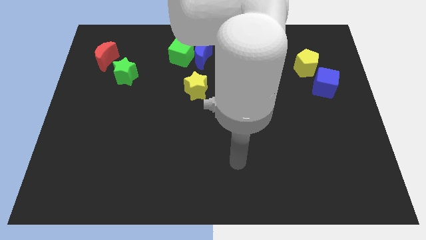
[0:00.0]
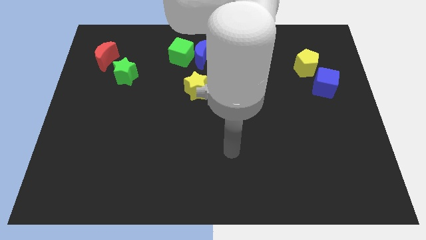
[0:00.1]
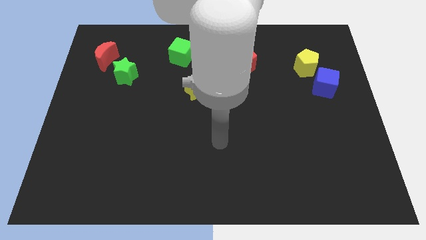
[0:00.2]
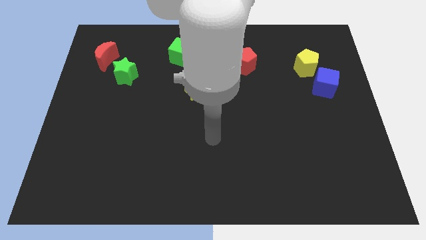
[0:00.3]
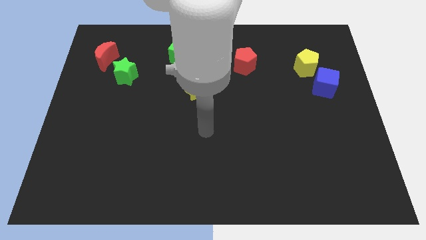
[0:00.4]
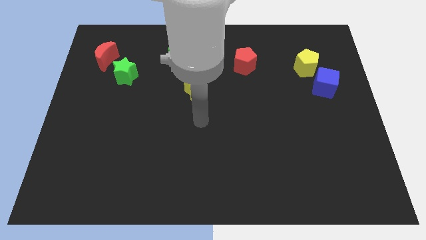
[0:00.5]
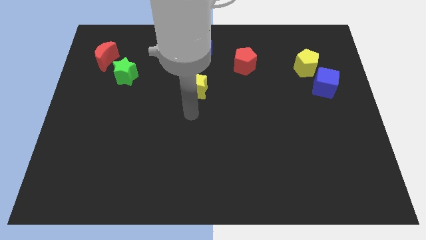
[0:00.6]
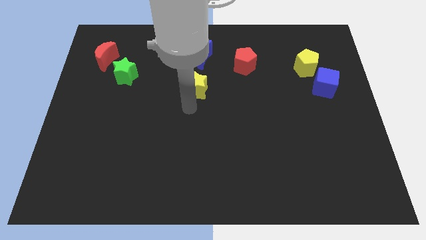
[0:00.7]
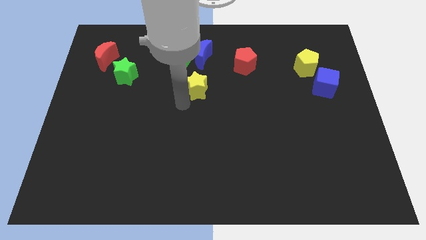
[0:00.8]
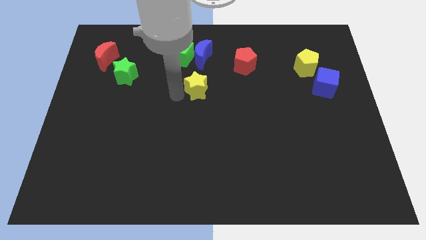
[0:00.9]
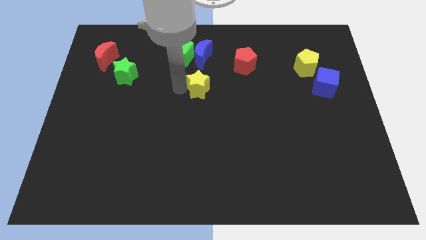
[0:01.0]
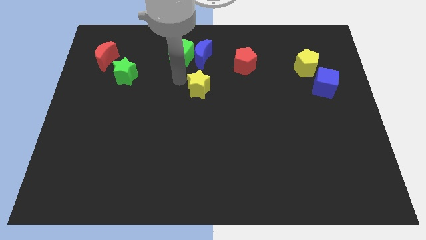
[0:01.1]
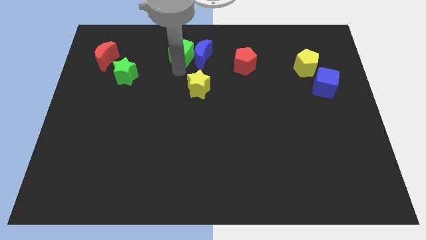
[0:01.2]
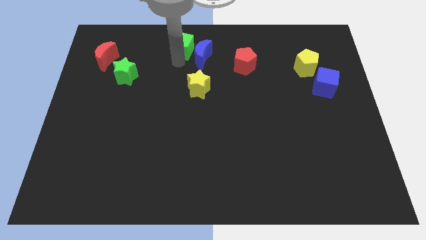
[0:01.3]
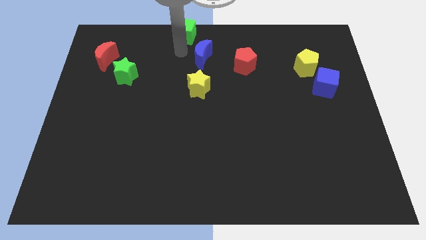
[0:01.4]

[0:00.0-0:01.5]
pull the blue moon apart from the green cube

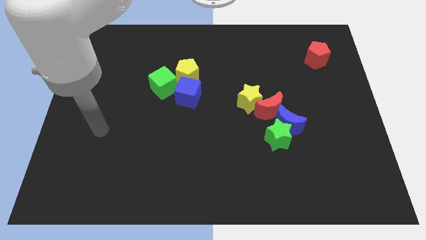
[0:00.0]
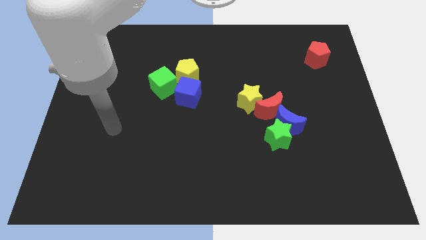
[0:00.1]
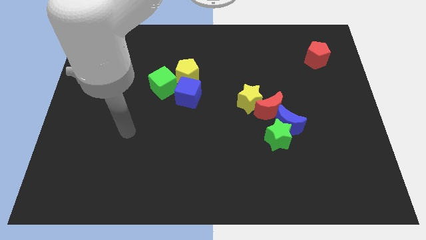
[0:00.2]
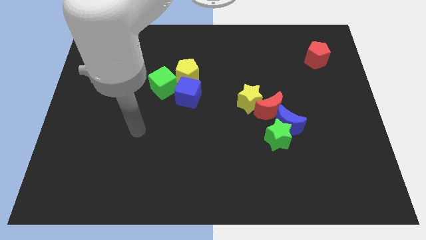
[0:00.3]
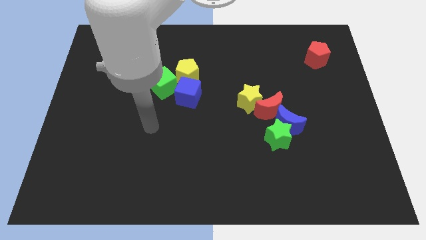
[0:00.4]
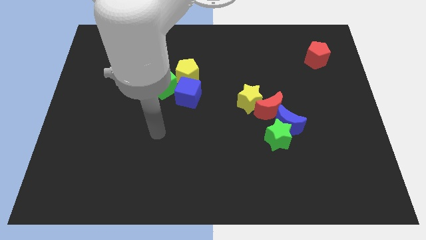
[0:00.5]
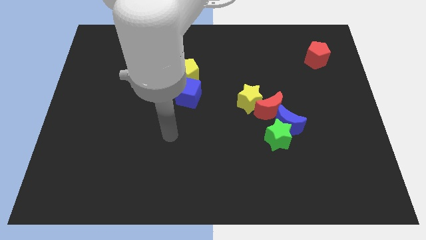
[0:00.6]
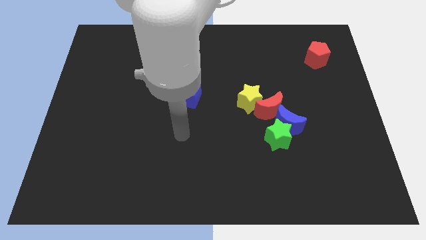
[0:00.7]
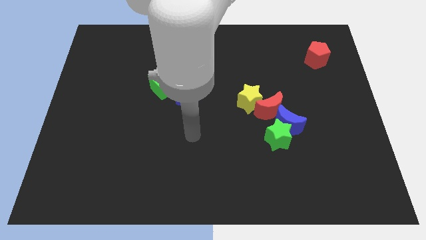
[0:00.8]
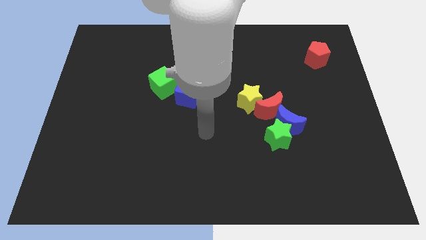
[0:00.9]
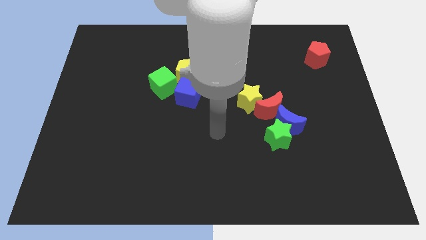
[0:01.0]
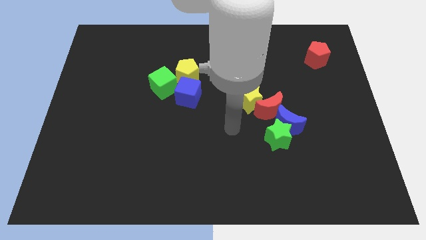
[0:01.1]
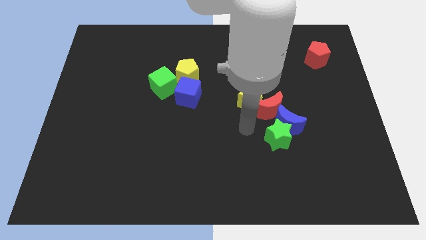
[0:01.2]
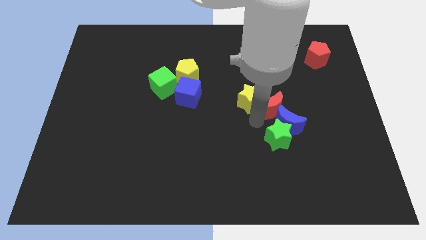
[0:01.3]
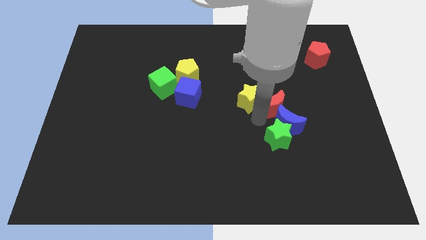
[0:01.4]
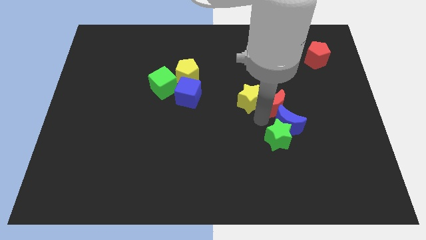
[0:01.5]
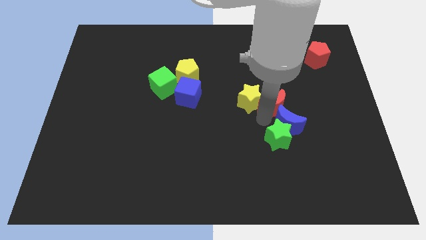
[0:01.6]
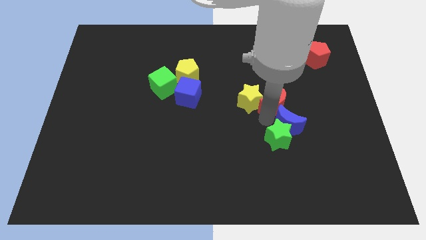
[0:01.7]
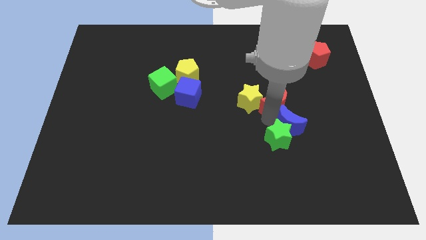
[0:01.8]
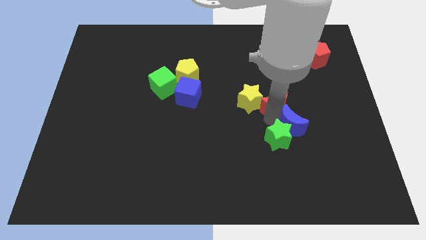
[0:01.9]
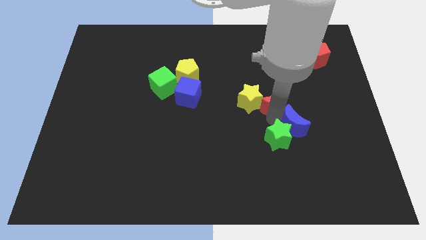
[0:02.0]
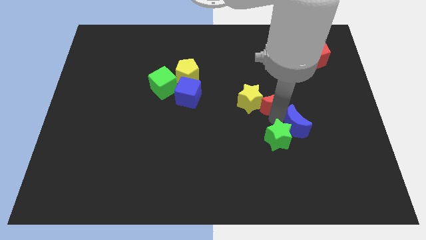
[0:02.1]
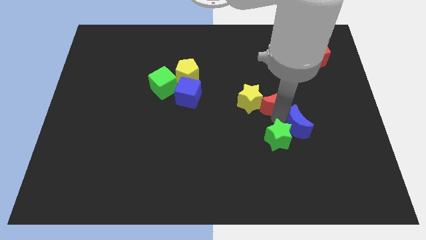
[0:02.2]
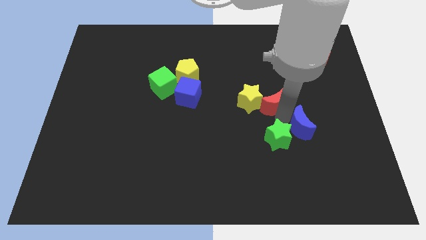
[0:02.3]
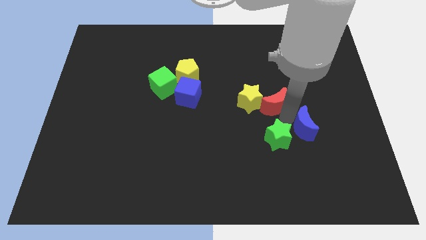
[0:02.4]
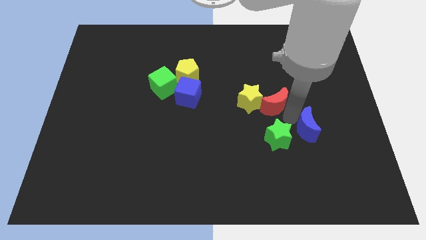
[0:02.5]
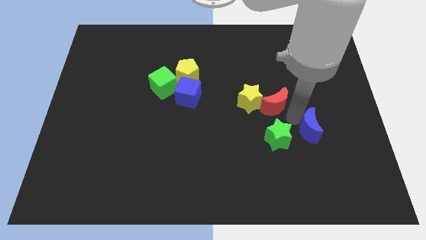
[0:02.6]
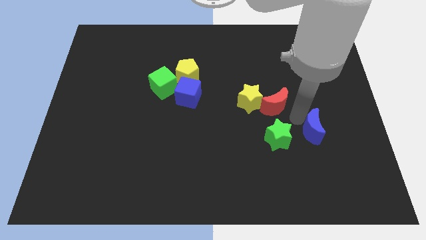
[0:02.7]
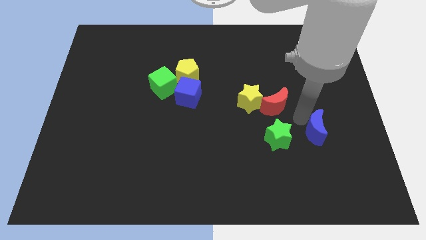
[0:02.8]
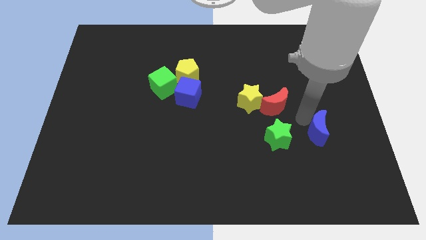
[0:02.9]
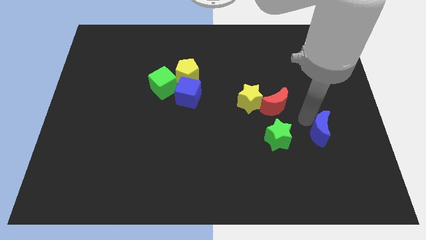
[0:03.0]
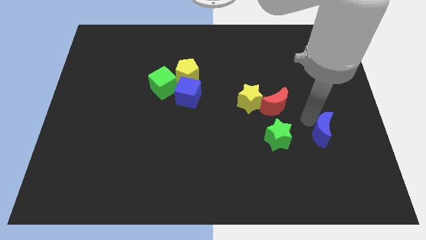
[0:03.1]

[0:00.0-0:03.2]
separate the blue moon from the green star and red moon

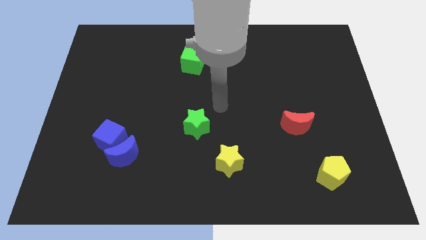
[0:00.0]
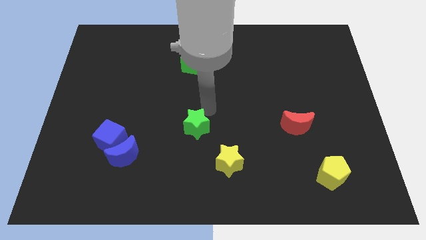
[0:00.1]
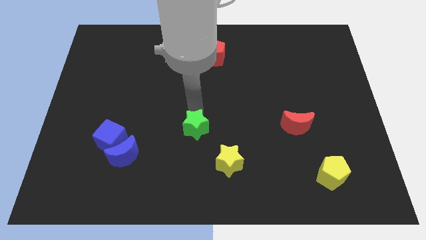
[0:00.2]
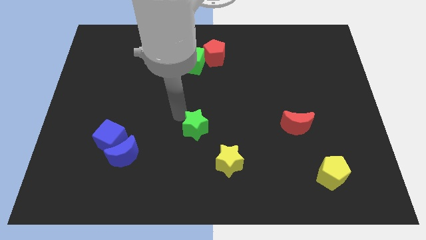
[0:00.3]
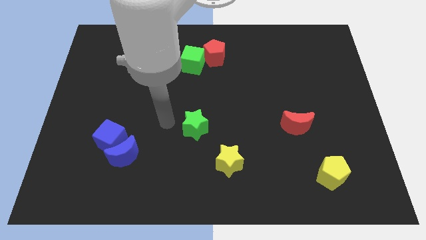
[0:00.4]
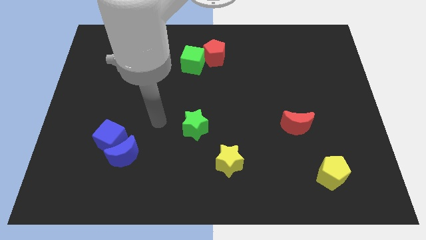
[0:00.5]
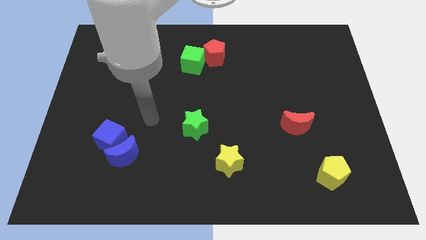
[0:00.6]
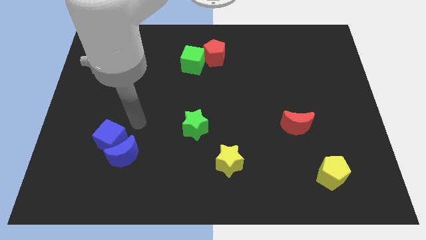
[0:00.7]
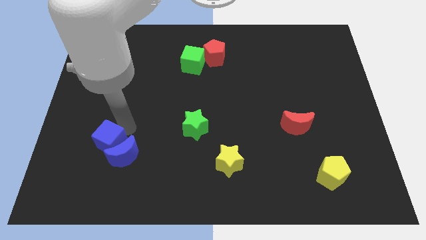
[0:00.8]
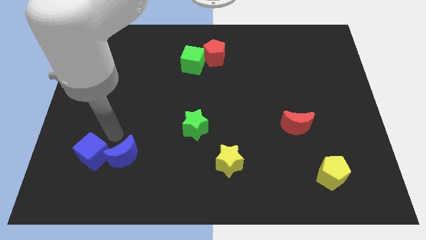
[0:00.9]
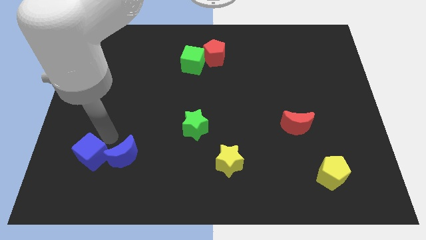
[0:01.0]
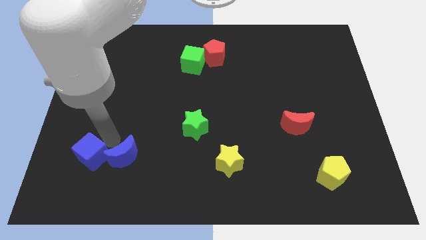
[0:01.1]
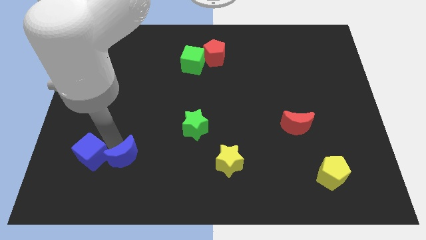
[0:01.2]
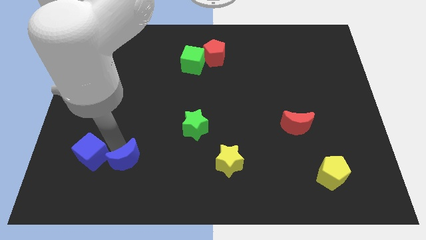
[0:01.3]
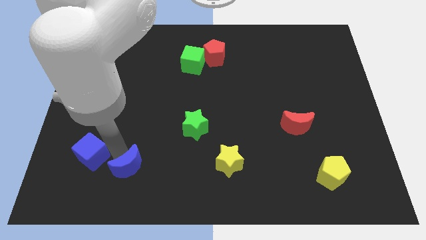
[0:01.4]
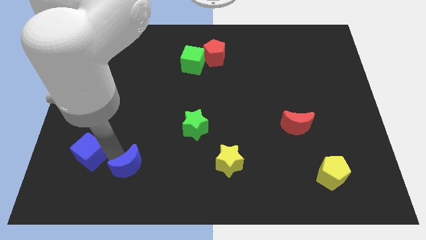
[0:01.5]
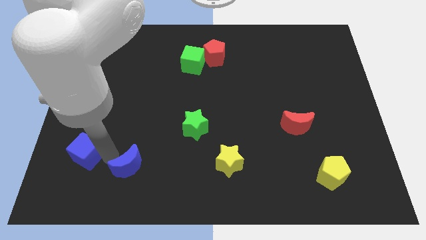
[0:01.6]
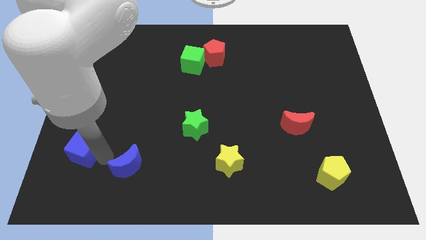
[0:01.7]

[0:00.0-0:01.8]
move the blue moon away from the blue cube

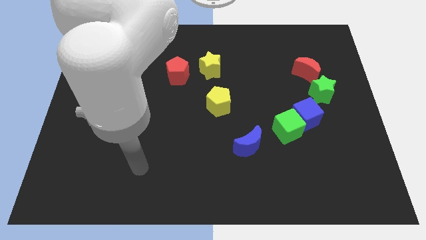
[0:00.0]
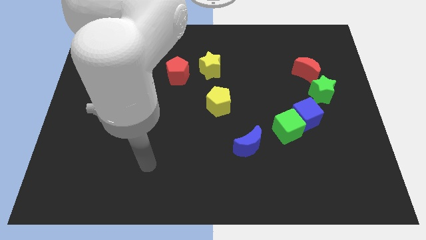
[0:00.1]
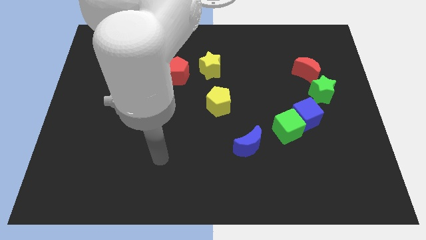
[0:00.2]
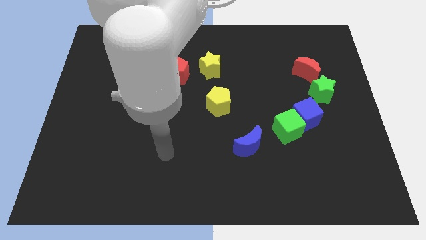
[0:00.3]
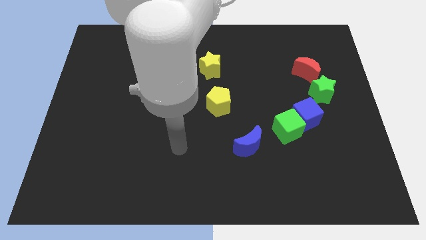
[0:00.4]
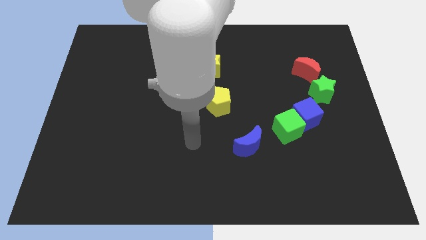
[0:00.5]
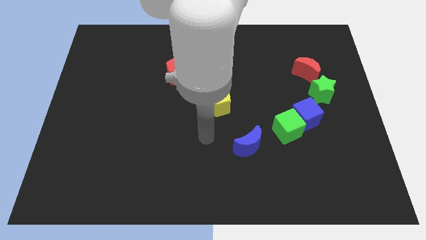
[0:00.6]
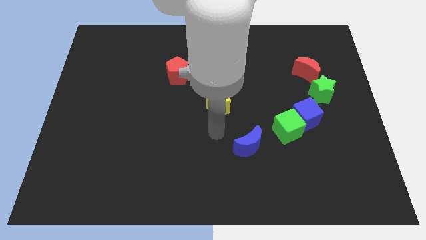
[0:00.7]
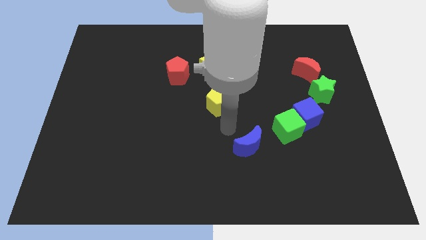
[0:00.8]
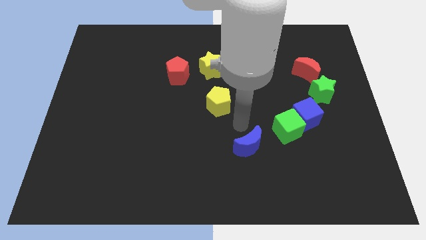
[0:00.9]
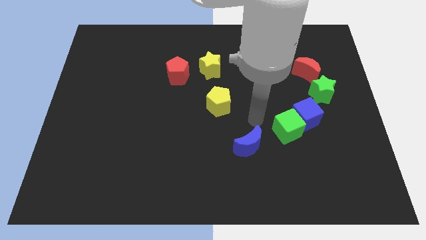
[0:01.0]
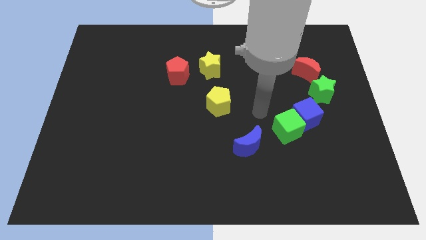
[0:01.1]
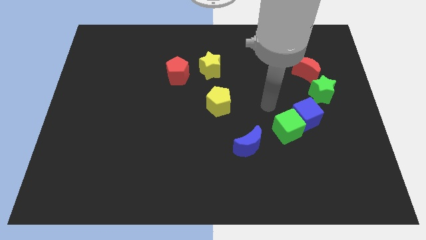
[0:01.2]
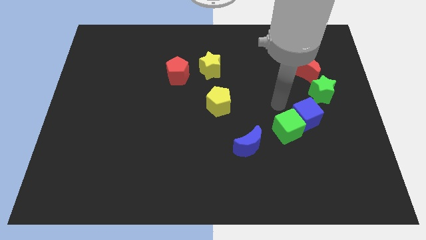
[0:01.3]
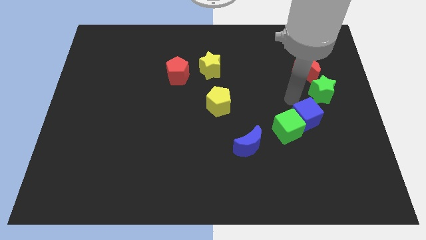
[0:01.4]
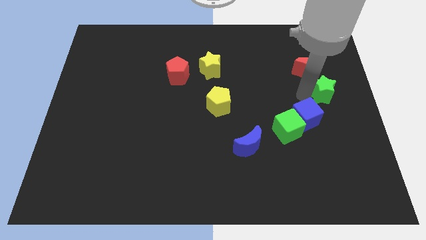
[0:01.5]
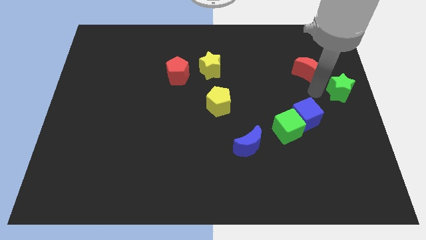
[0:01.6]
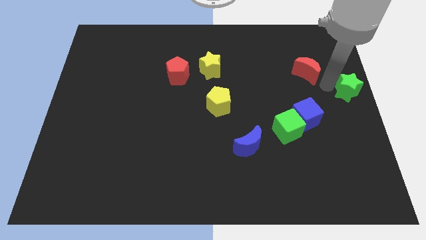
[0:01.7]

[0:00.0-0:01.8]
separate the red moon from the green star

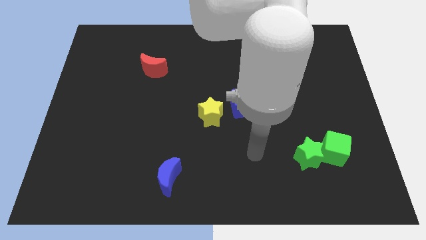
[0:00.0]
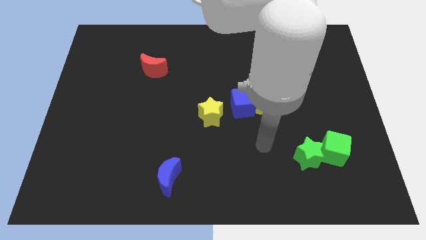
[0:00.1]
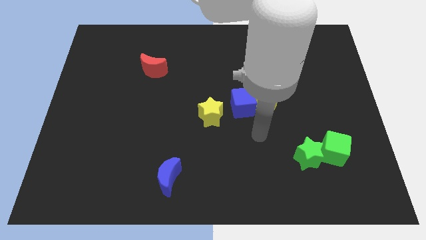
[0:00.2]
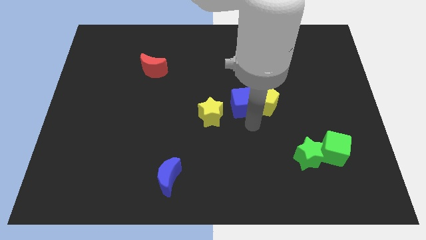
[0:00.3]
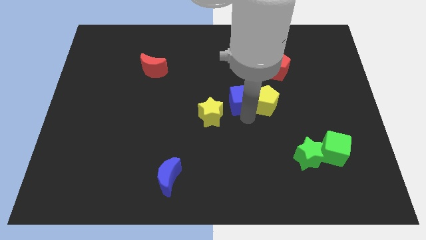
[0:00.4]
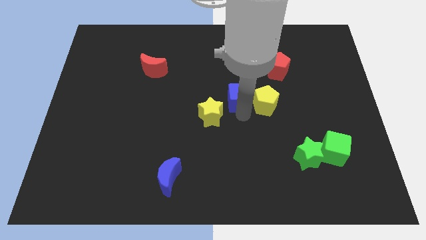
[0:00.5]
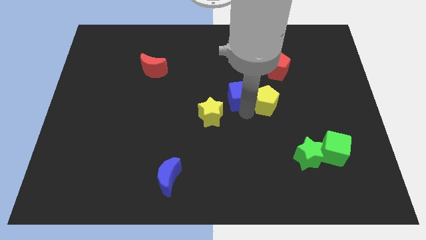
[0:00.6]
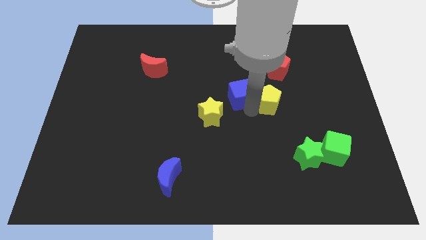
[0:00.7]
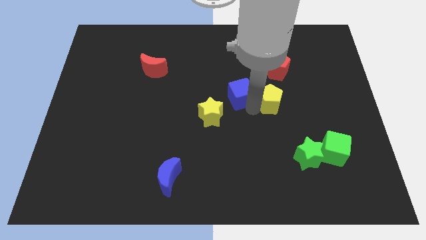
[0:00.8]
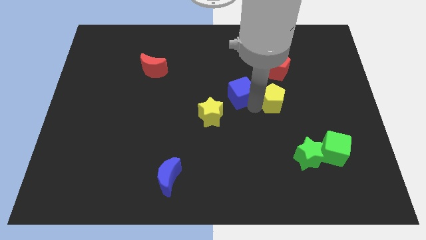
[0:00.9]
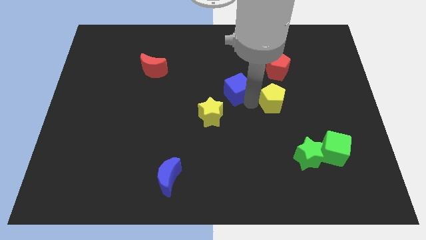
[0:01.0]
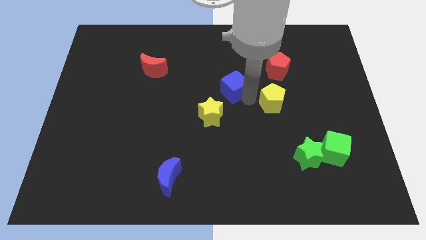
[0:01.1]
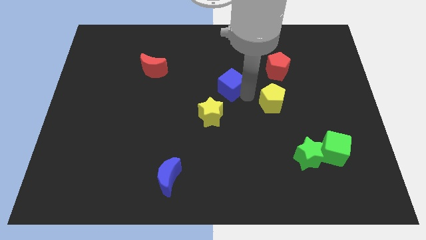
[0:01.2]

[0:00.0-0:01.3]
pull the yellow pentagon apart from the blue cube
